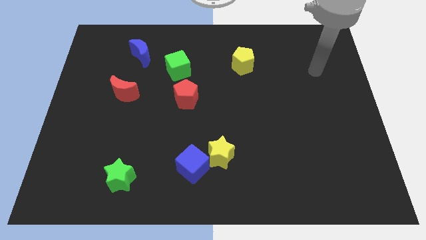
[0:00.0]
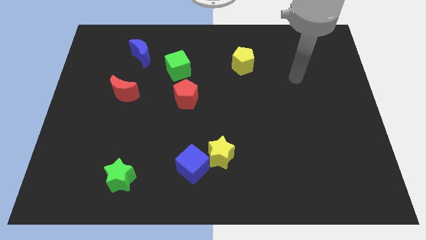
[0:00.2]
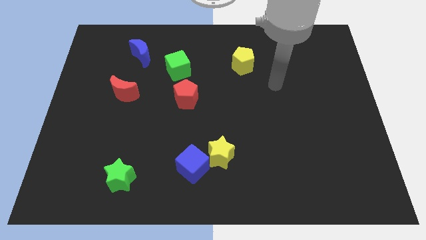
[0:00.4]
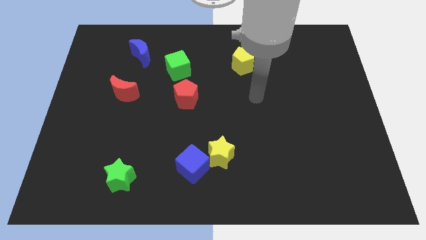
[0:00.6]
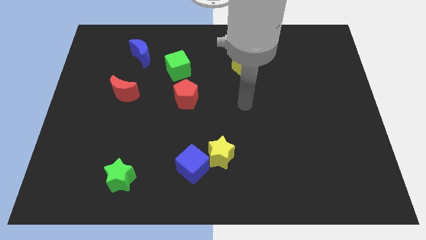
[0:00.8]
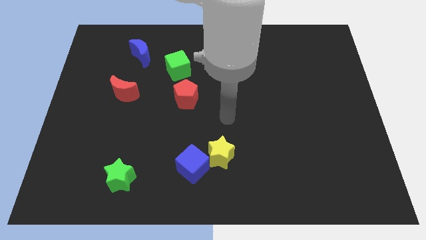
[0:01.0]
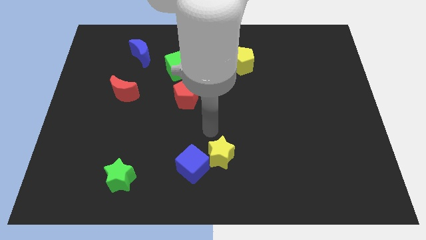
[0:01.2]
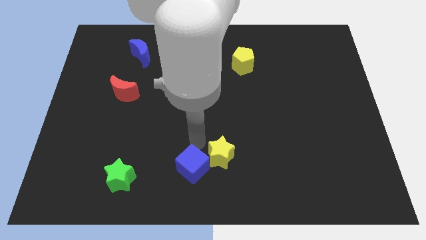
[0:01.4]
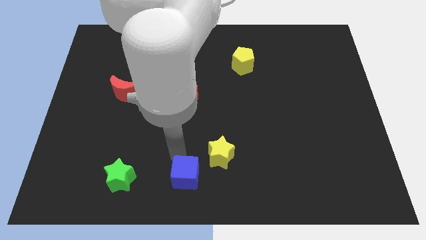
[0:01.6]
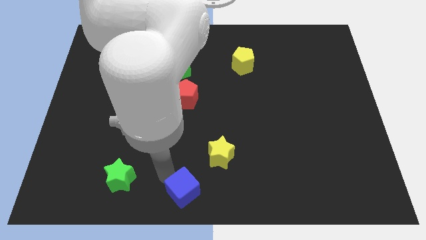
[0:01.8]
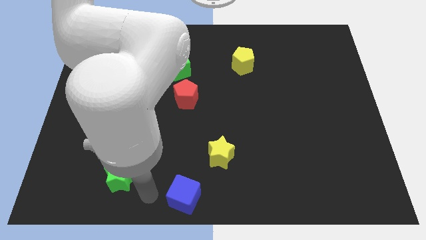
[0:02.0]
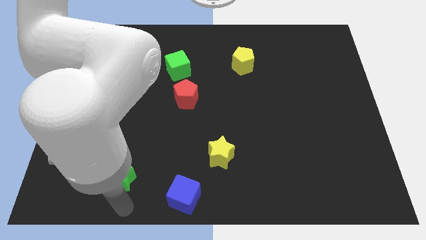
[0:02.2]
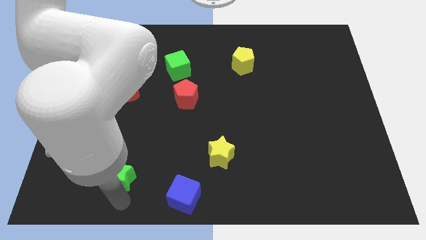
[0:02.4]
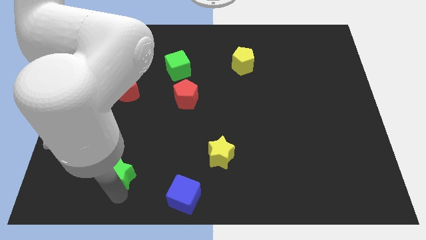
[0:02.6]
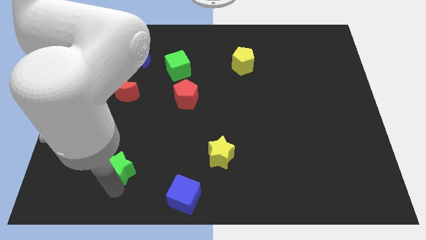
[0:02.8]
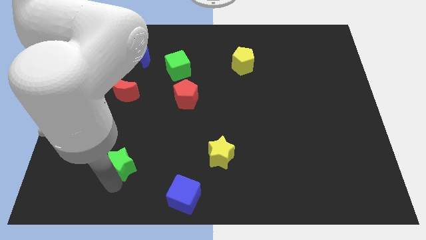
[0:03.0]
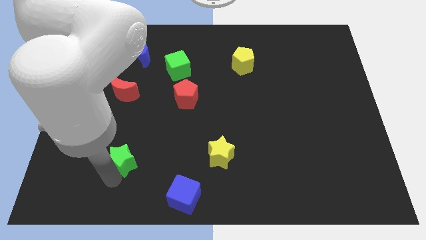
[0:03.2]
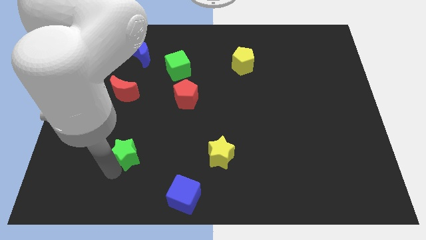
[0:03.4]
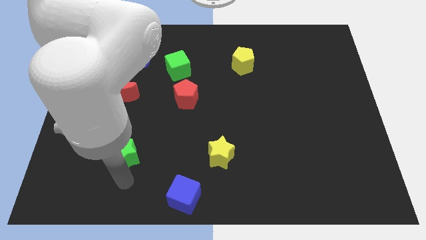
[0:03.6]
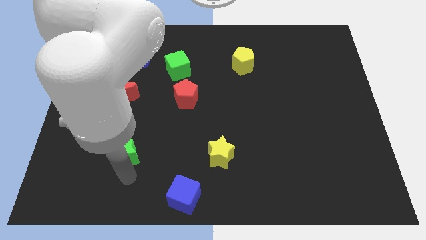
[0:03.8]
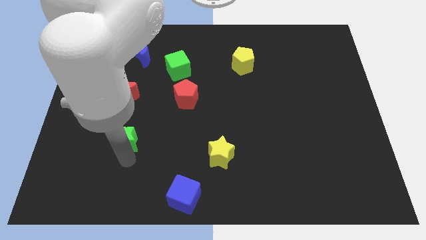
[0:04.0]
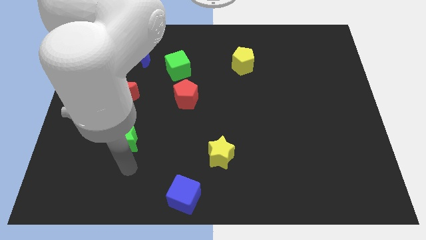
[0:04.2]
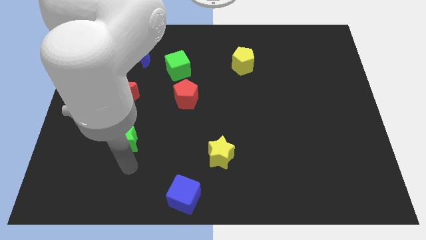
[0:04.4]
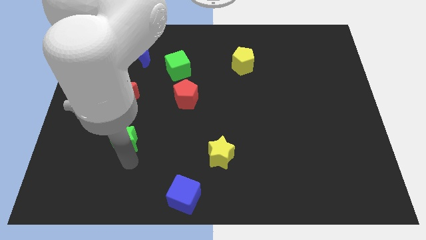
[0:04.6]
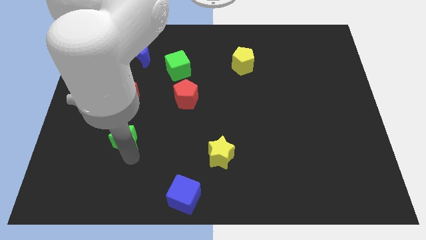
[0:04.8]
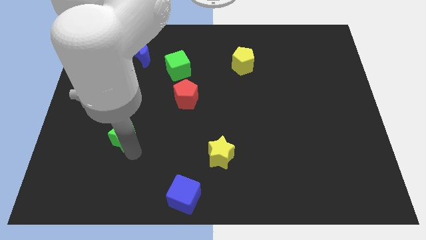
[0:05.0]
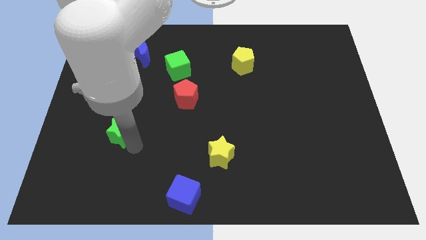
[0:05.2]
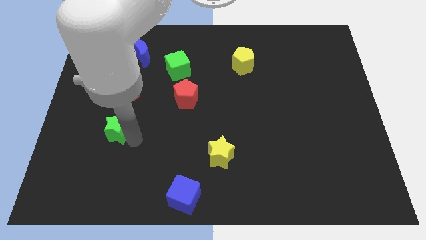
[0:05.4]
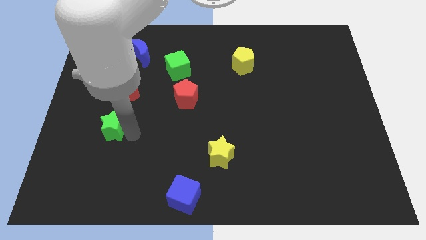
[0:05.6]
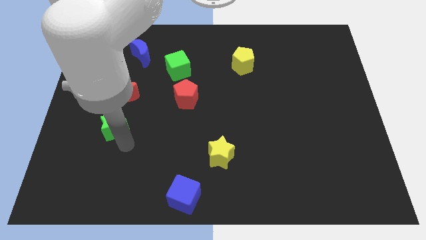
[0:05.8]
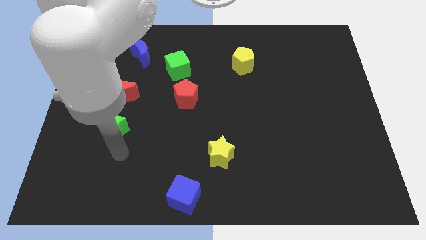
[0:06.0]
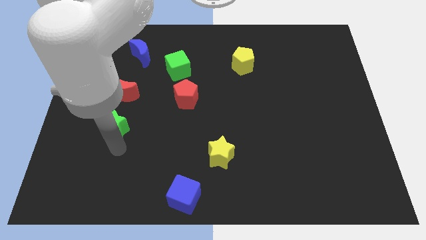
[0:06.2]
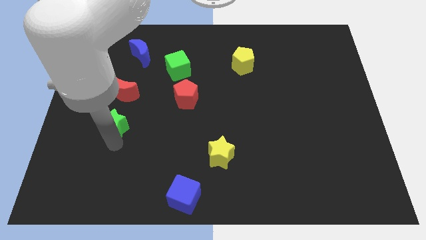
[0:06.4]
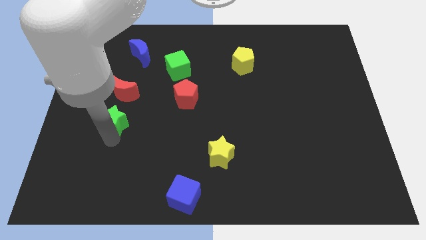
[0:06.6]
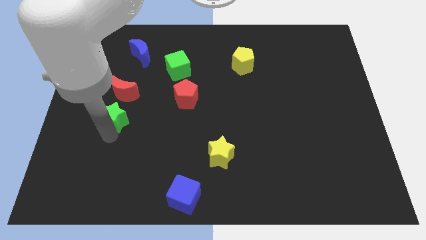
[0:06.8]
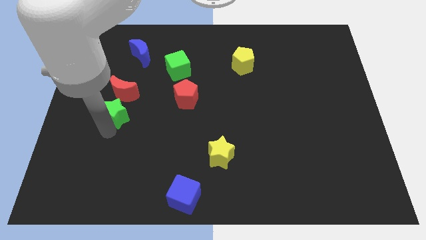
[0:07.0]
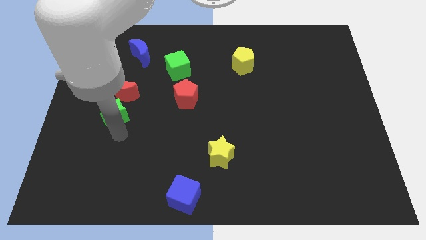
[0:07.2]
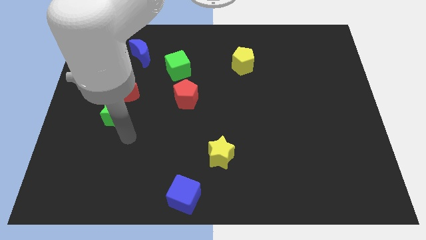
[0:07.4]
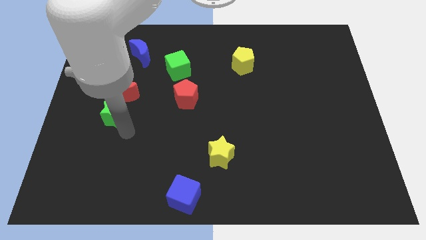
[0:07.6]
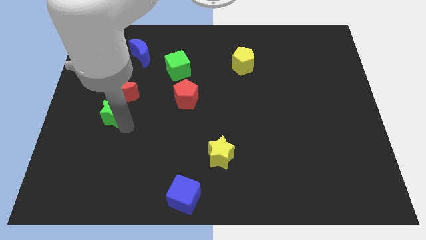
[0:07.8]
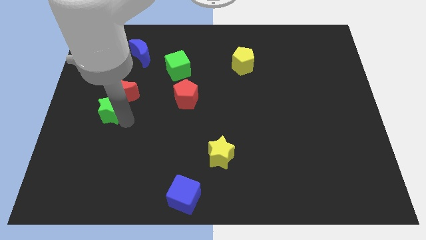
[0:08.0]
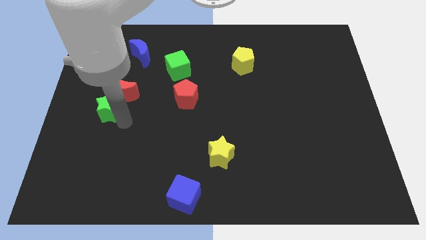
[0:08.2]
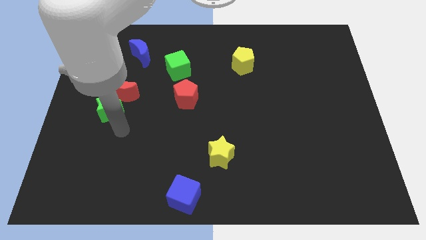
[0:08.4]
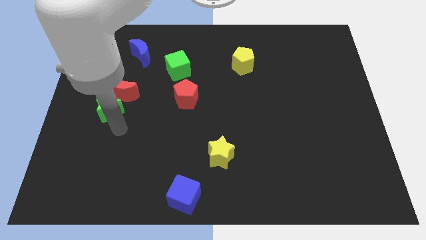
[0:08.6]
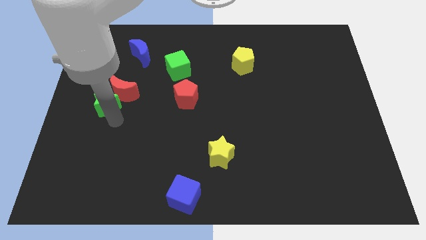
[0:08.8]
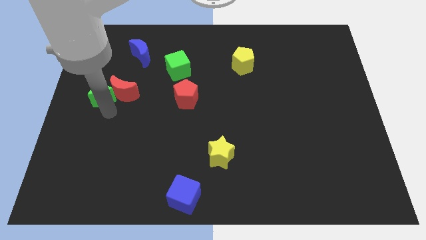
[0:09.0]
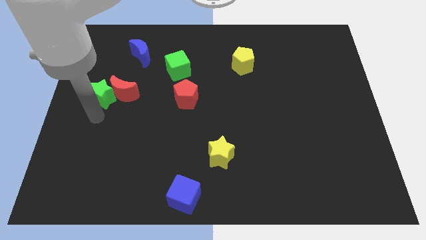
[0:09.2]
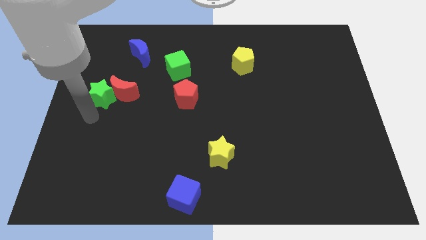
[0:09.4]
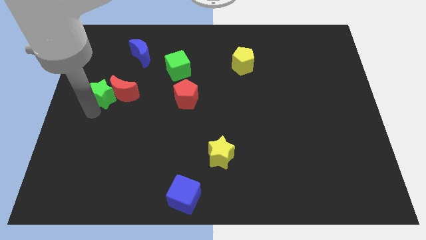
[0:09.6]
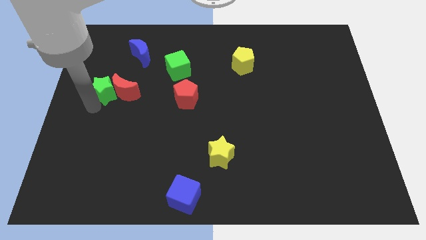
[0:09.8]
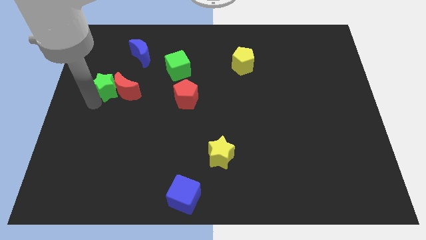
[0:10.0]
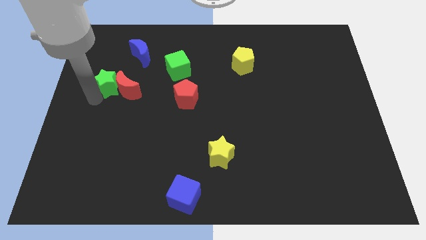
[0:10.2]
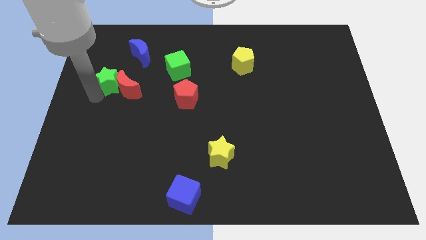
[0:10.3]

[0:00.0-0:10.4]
slide the green star diagonally down and to the left of the blue moon

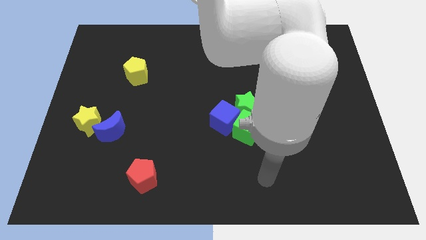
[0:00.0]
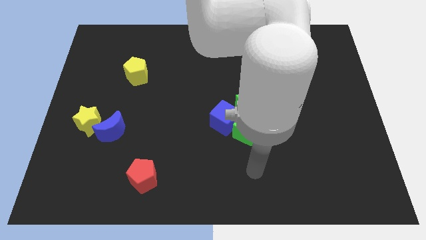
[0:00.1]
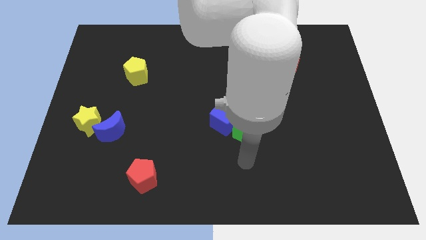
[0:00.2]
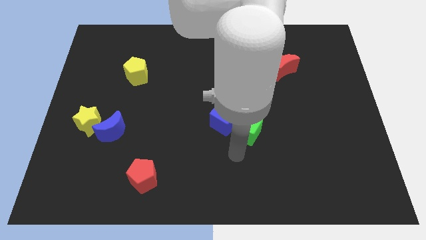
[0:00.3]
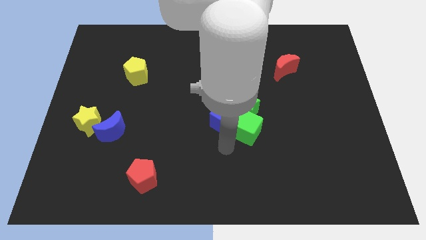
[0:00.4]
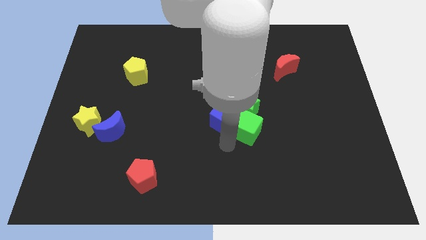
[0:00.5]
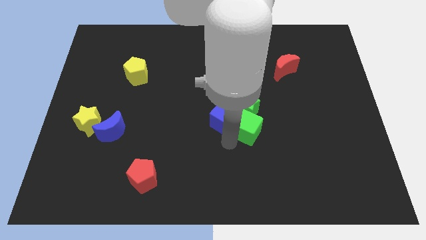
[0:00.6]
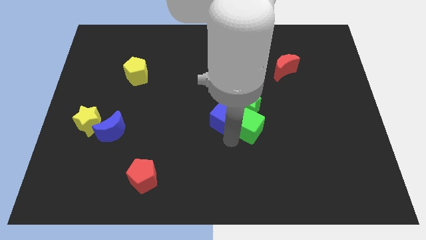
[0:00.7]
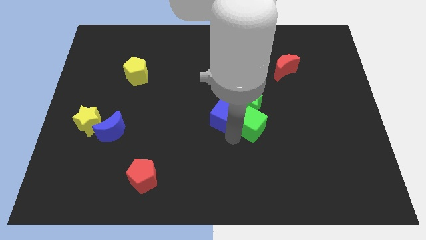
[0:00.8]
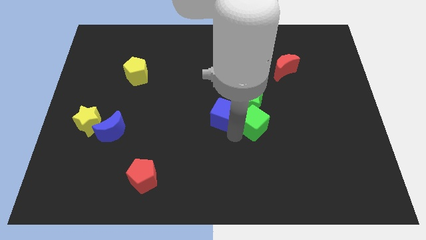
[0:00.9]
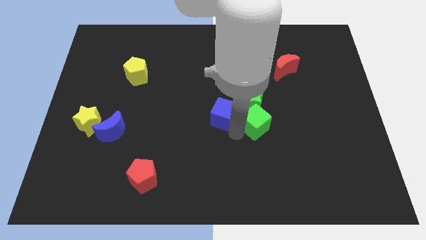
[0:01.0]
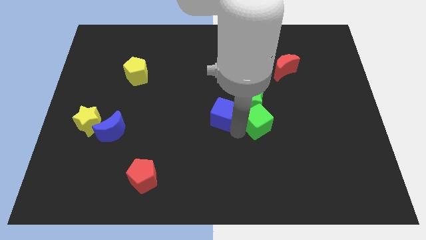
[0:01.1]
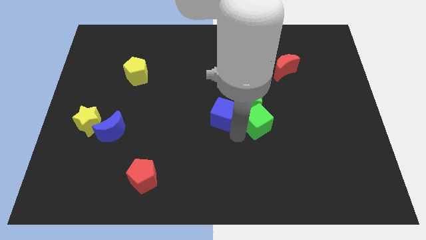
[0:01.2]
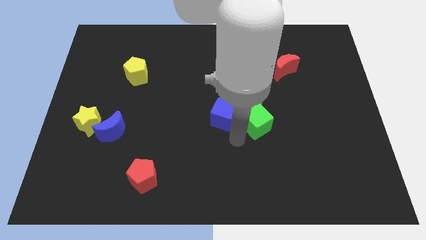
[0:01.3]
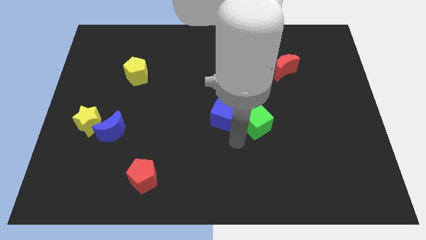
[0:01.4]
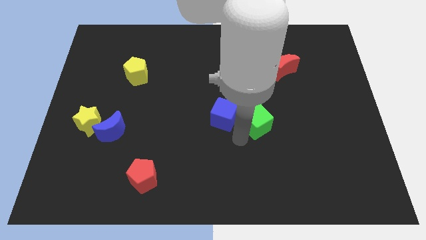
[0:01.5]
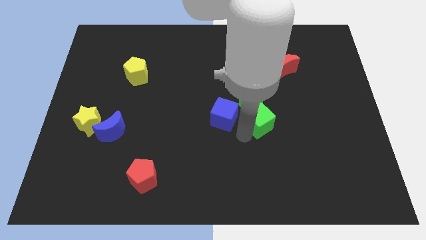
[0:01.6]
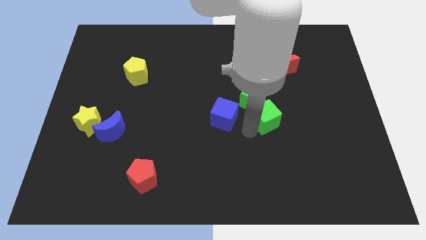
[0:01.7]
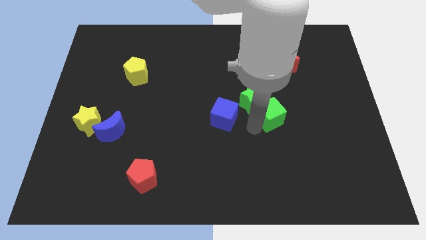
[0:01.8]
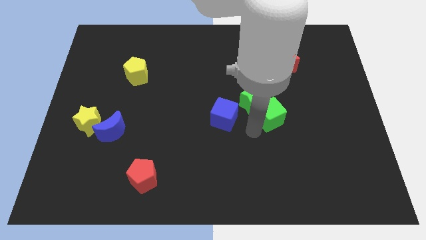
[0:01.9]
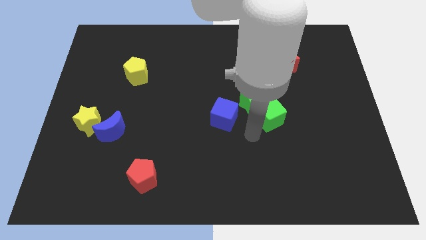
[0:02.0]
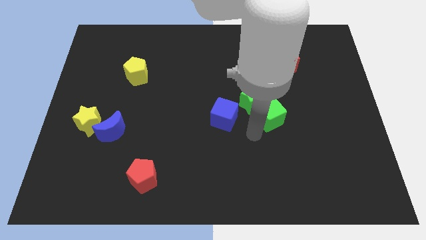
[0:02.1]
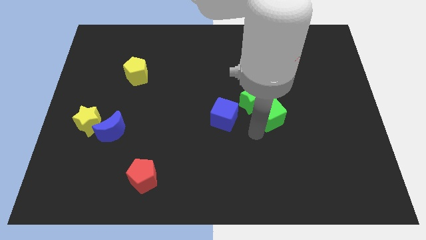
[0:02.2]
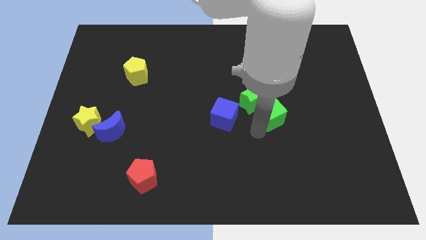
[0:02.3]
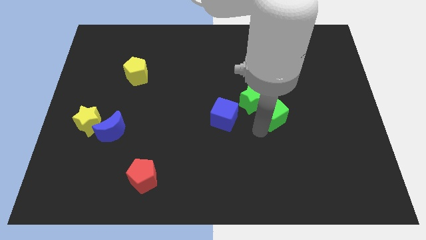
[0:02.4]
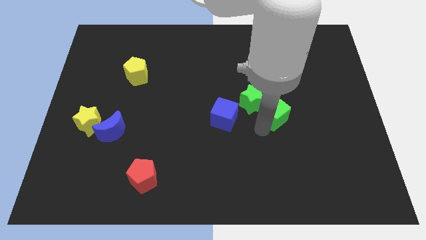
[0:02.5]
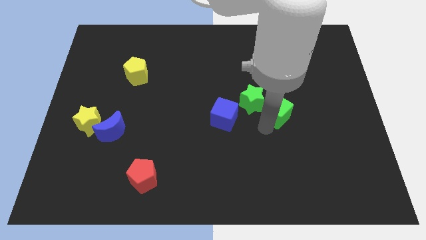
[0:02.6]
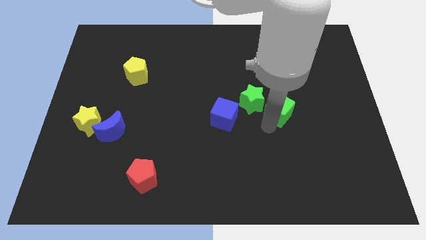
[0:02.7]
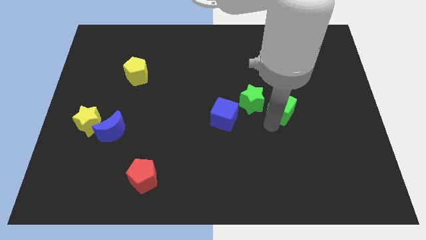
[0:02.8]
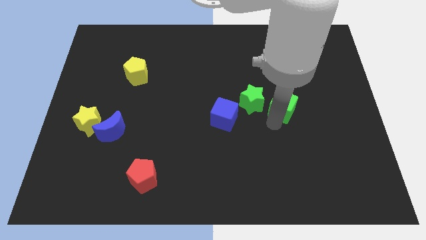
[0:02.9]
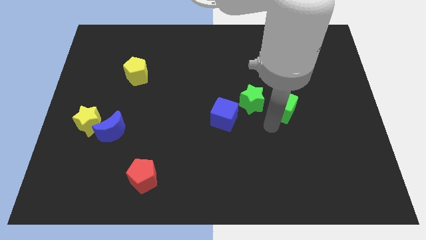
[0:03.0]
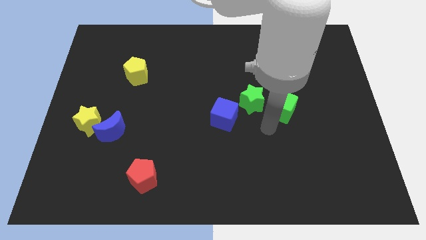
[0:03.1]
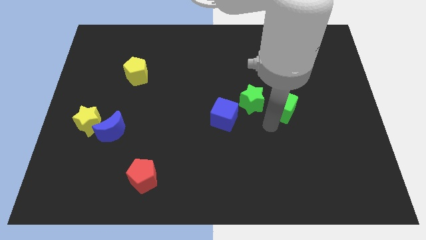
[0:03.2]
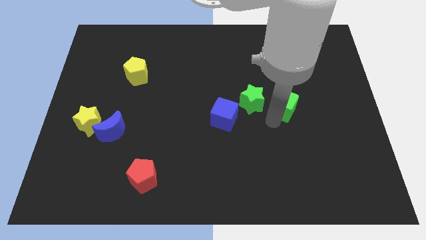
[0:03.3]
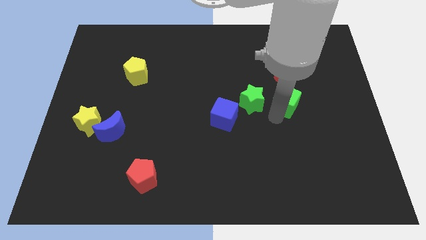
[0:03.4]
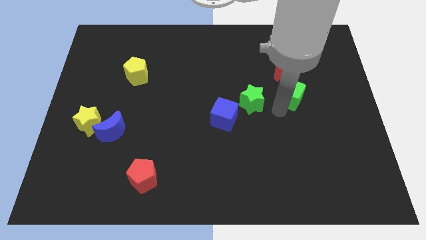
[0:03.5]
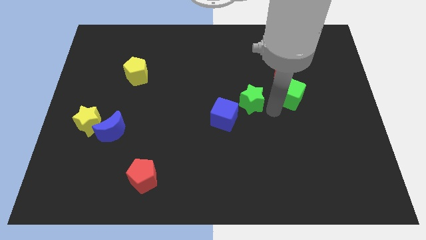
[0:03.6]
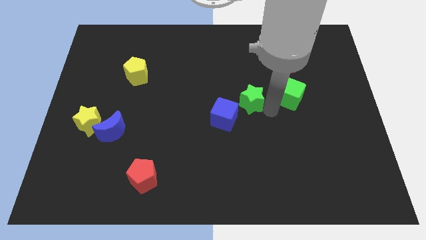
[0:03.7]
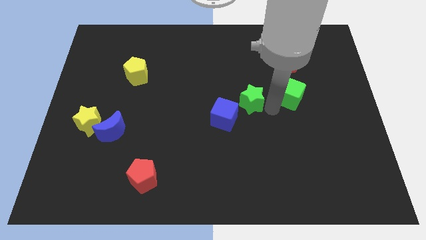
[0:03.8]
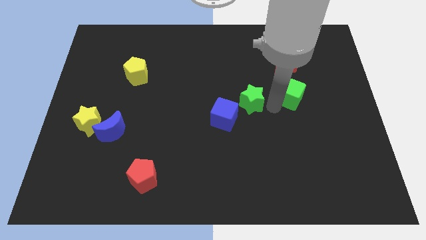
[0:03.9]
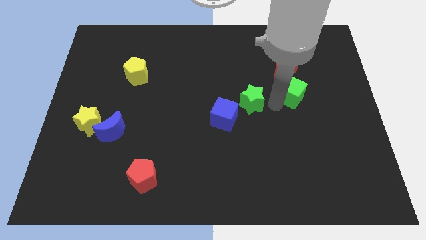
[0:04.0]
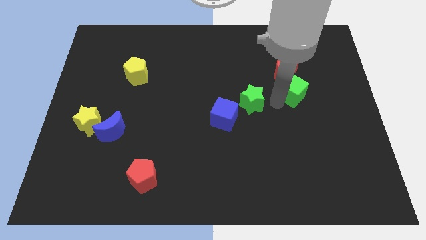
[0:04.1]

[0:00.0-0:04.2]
move the green cube to the bottom right side of the red moon
